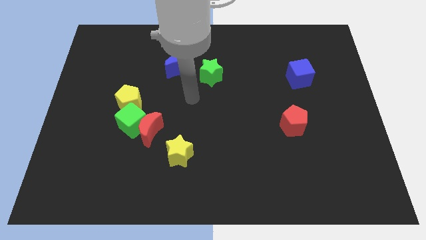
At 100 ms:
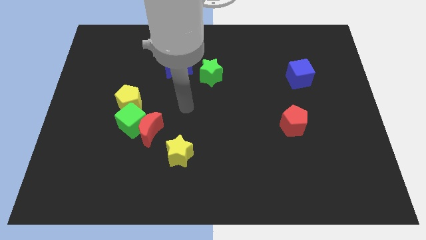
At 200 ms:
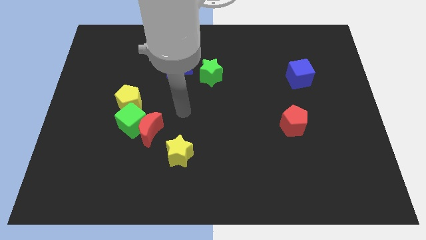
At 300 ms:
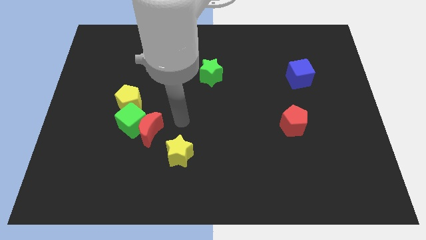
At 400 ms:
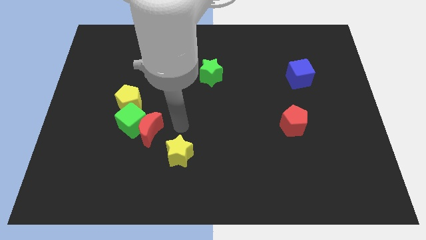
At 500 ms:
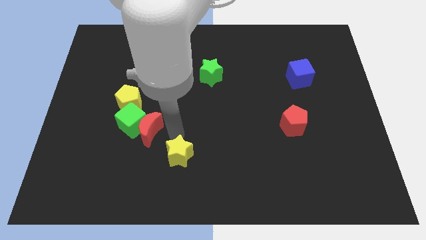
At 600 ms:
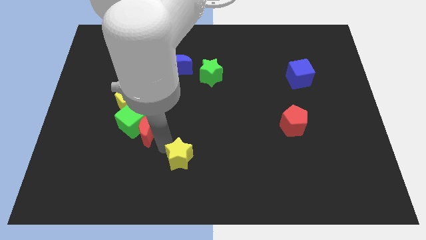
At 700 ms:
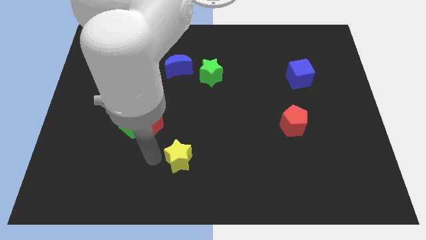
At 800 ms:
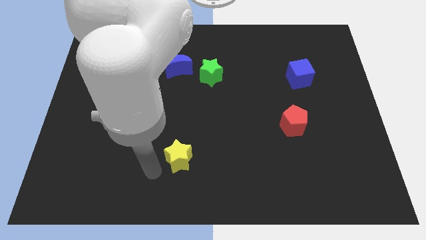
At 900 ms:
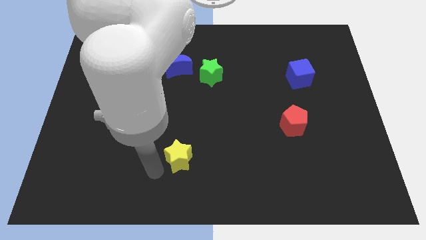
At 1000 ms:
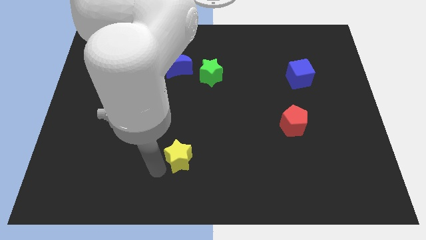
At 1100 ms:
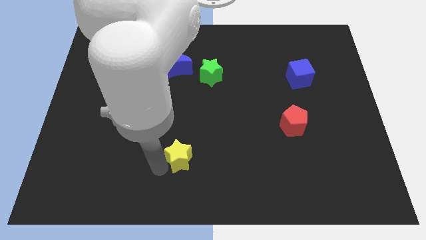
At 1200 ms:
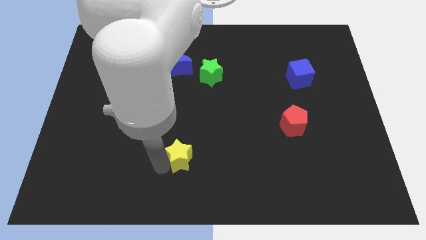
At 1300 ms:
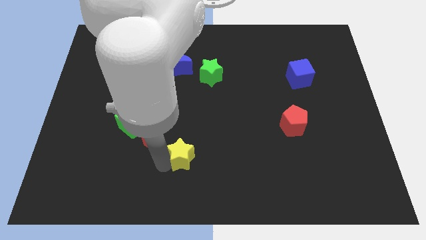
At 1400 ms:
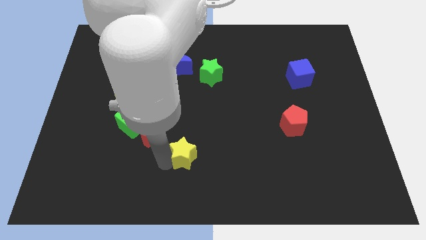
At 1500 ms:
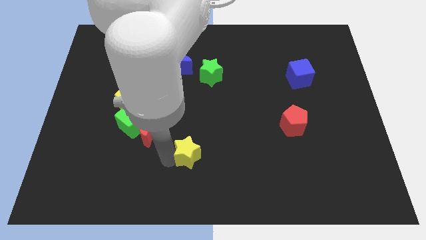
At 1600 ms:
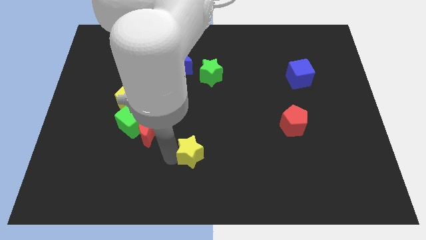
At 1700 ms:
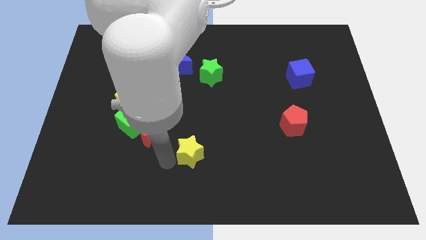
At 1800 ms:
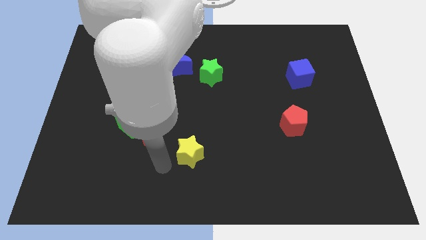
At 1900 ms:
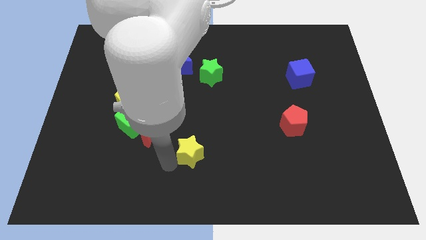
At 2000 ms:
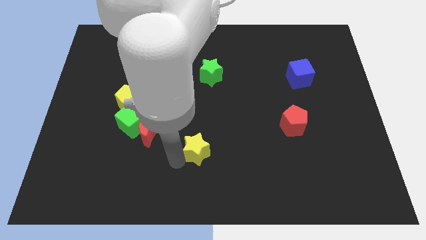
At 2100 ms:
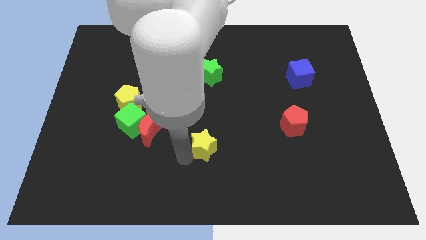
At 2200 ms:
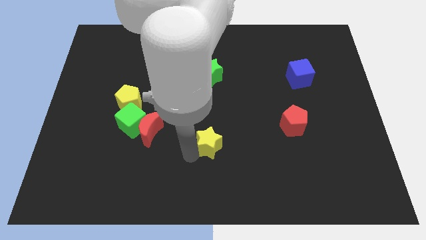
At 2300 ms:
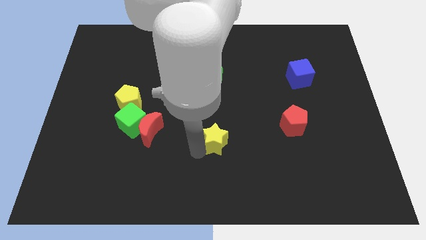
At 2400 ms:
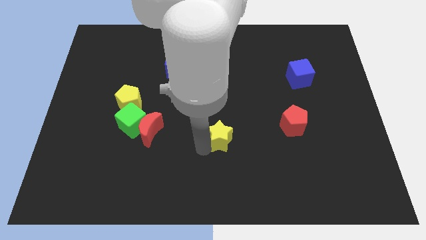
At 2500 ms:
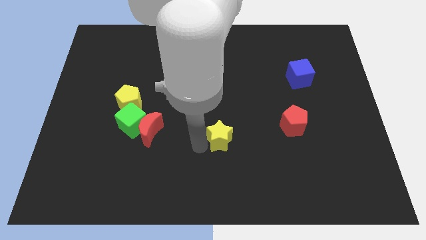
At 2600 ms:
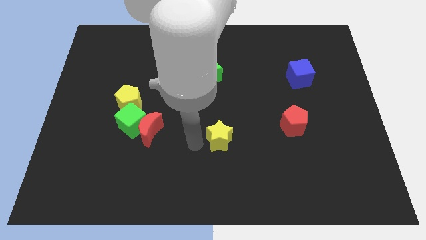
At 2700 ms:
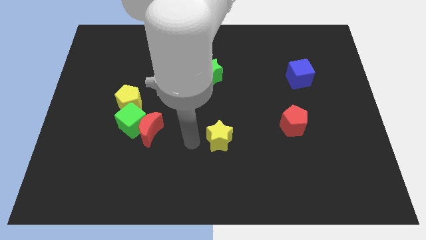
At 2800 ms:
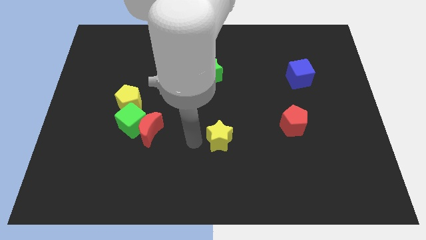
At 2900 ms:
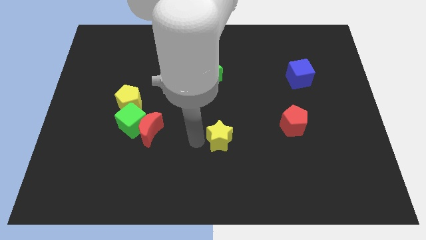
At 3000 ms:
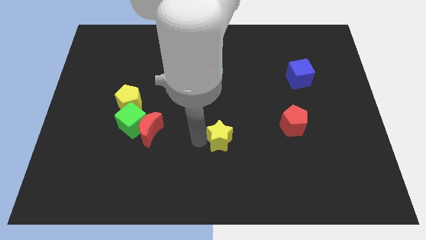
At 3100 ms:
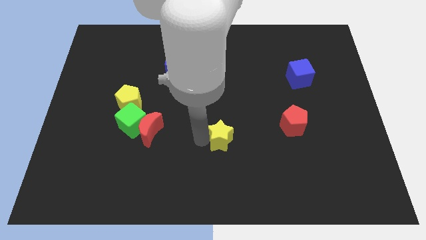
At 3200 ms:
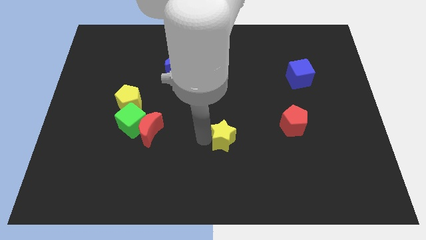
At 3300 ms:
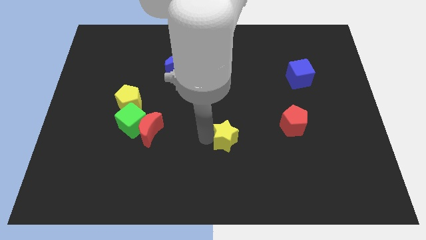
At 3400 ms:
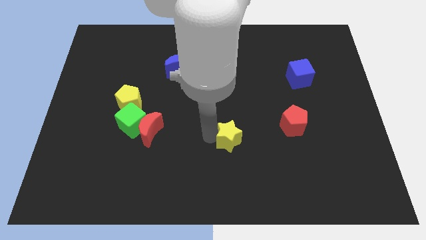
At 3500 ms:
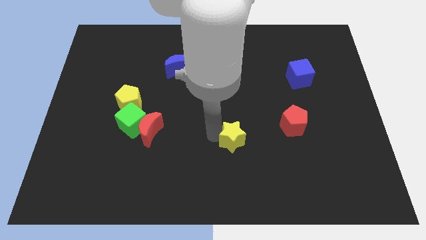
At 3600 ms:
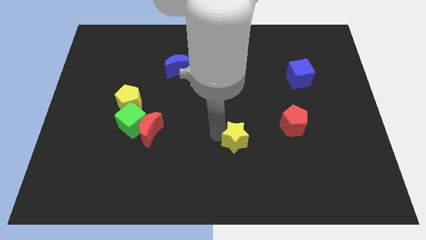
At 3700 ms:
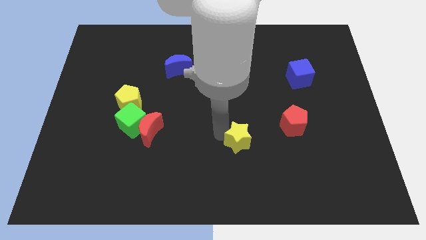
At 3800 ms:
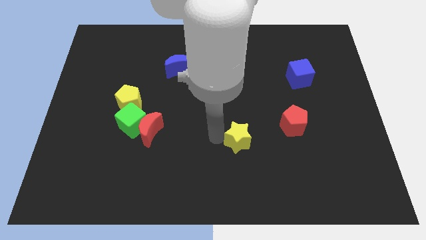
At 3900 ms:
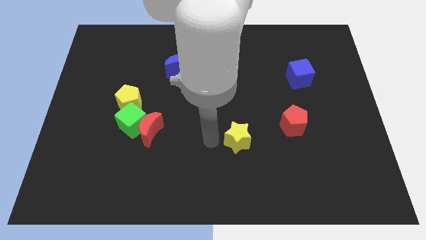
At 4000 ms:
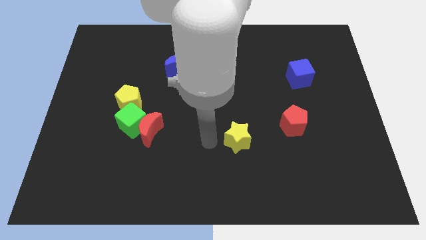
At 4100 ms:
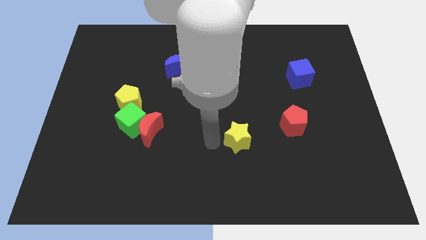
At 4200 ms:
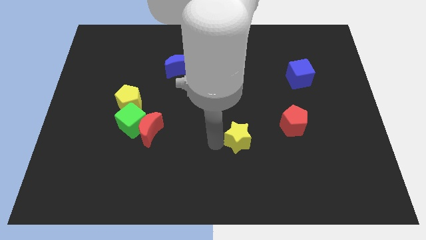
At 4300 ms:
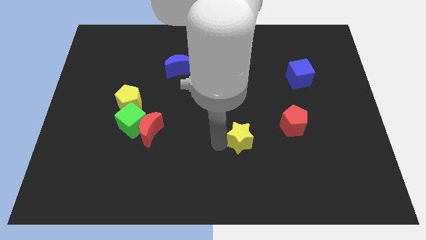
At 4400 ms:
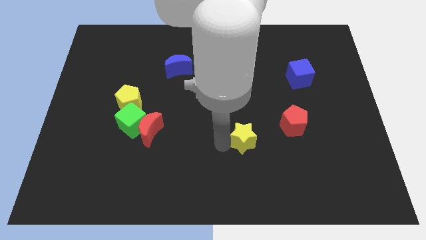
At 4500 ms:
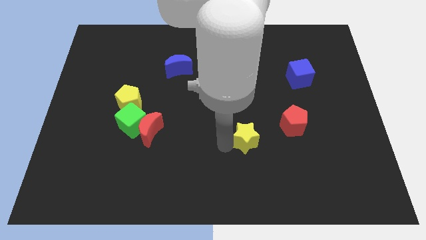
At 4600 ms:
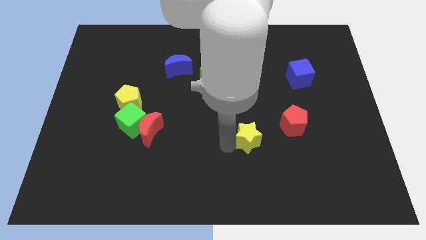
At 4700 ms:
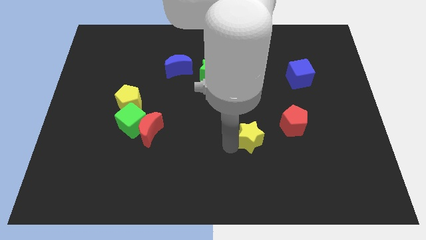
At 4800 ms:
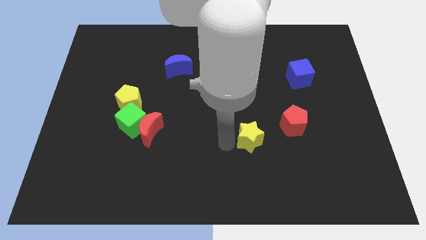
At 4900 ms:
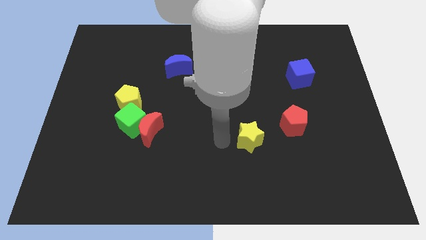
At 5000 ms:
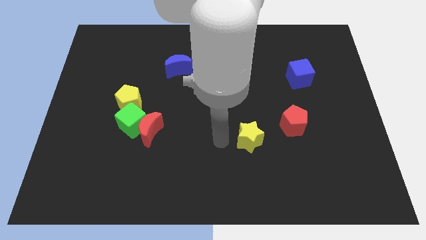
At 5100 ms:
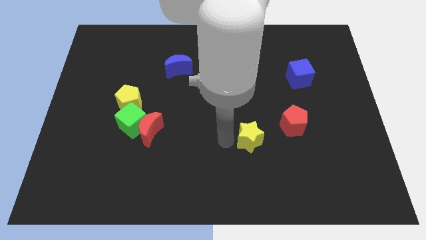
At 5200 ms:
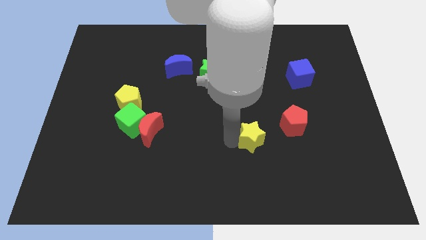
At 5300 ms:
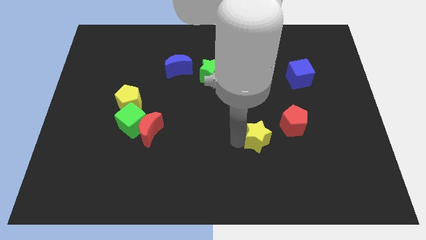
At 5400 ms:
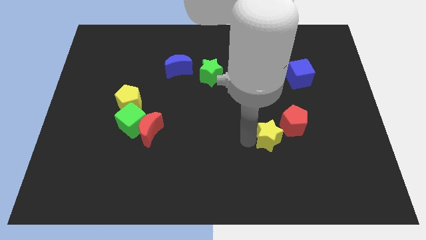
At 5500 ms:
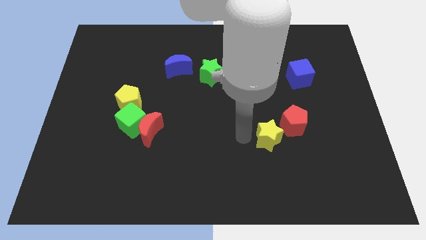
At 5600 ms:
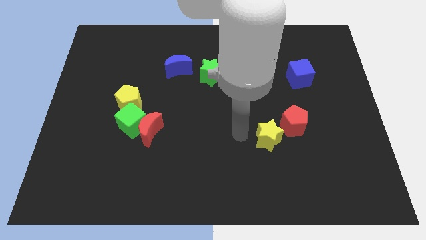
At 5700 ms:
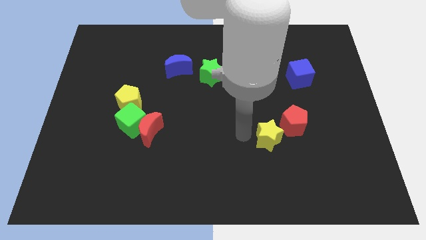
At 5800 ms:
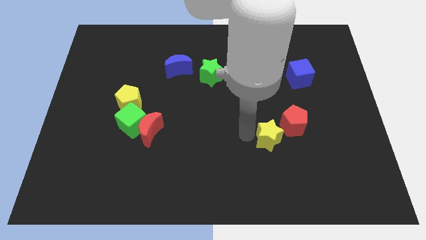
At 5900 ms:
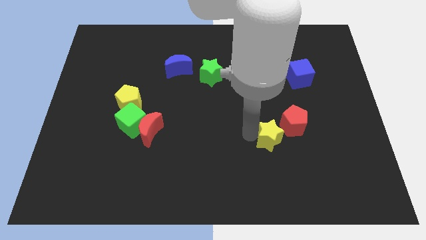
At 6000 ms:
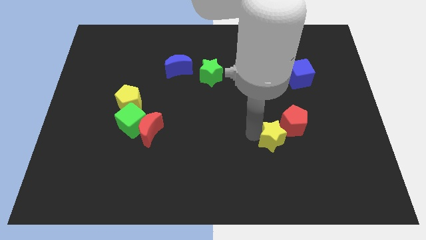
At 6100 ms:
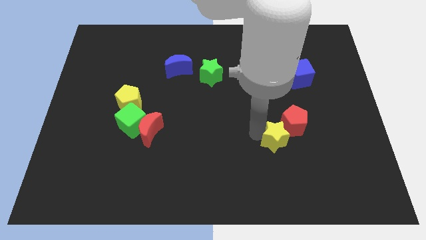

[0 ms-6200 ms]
slide the yellow star right

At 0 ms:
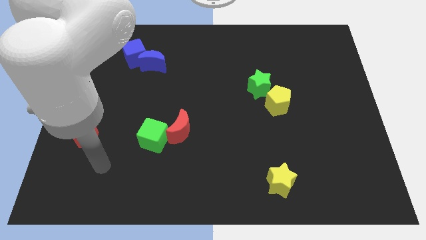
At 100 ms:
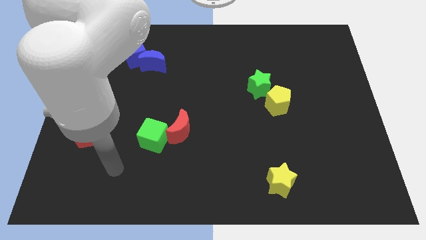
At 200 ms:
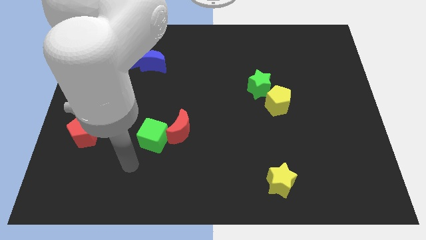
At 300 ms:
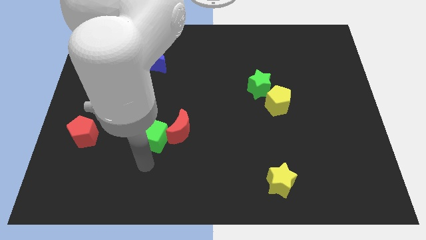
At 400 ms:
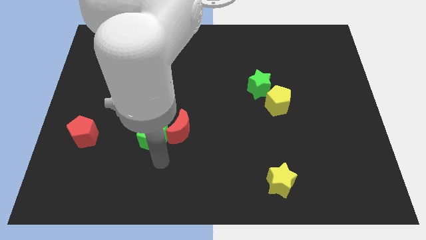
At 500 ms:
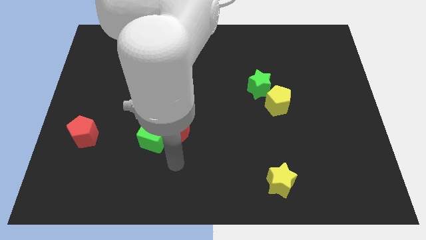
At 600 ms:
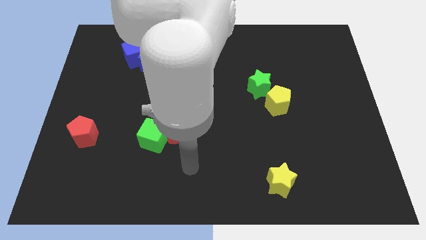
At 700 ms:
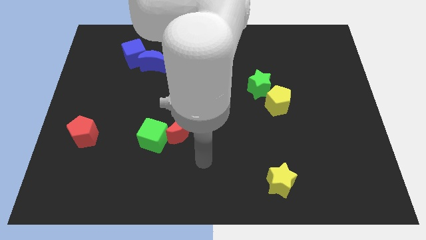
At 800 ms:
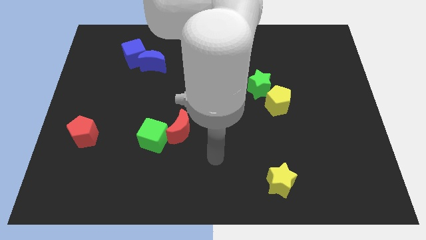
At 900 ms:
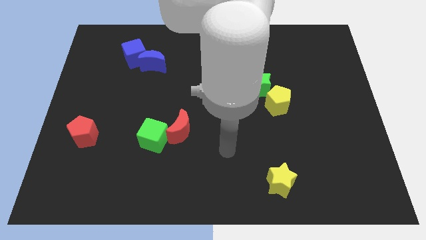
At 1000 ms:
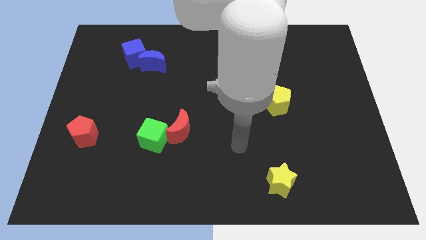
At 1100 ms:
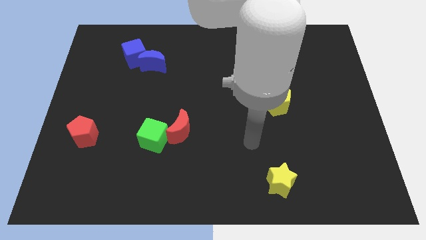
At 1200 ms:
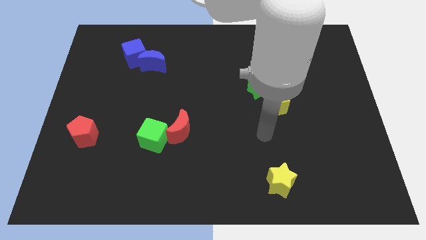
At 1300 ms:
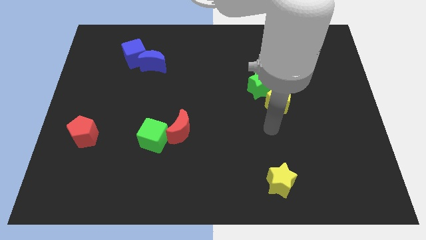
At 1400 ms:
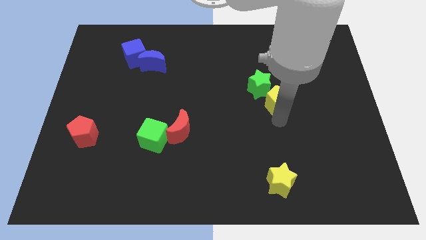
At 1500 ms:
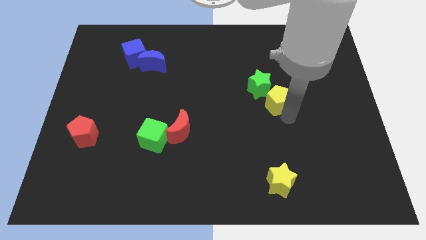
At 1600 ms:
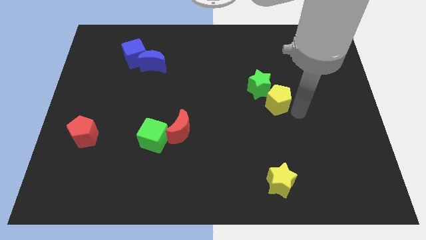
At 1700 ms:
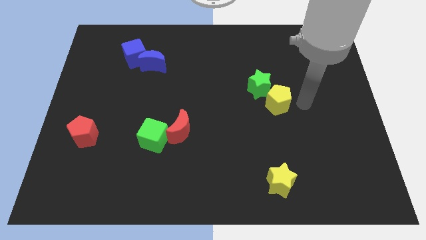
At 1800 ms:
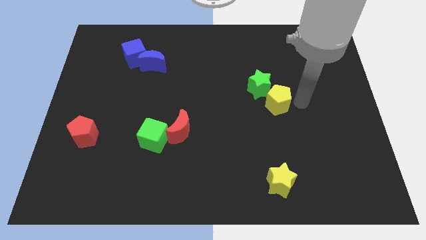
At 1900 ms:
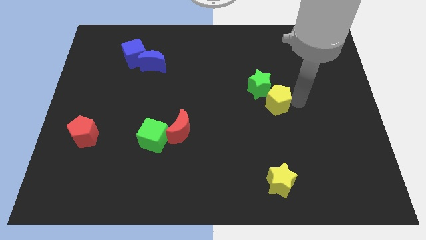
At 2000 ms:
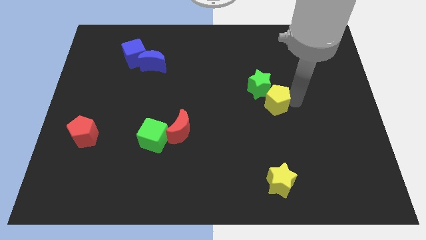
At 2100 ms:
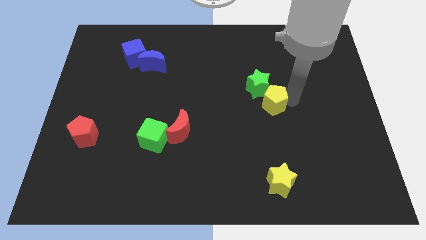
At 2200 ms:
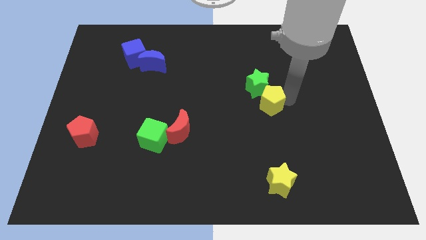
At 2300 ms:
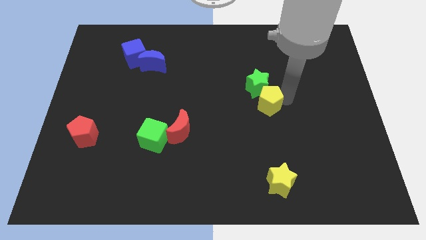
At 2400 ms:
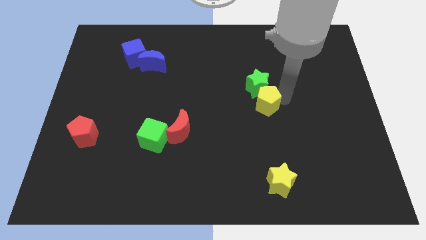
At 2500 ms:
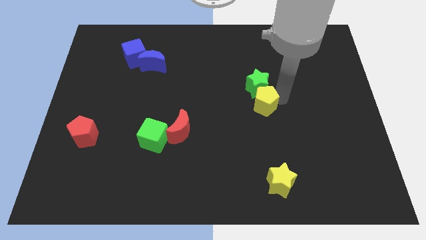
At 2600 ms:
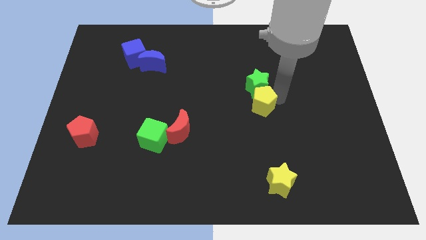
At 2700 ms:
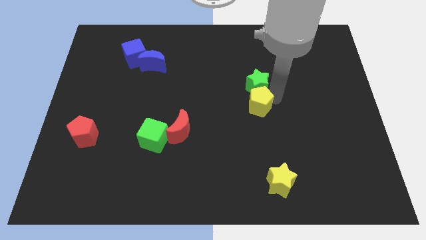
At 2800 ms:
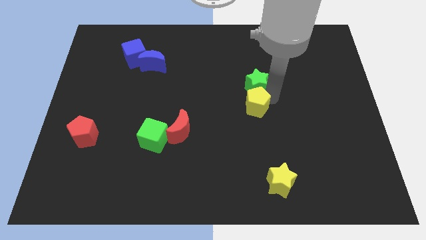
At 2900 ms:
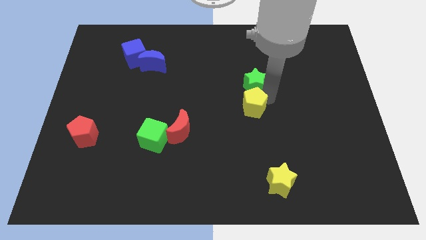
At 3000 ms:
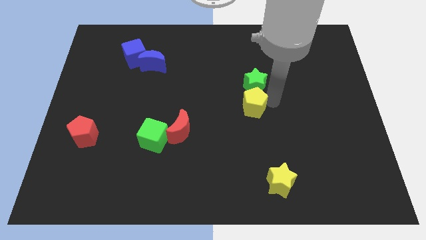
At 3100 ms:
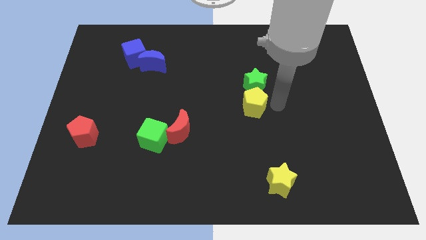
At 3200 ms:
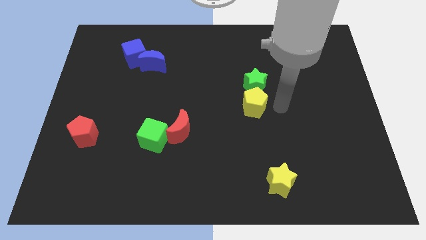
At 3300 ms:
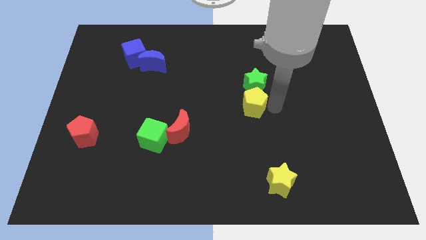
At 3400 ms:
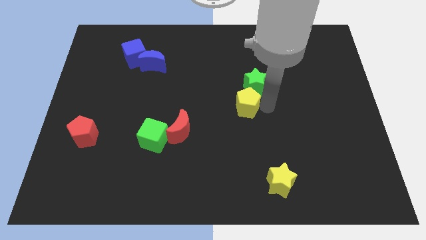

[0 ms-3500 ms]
move the yellow pentagon left somewhat
